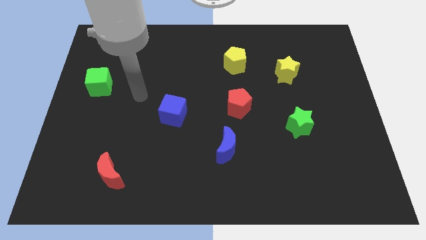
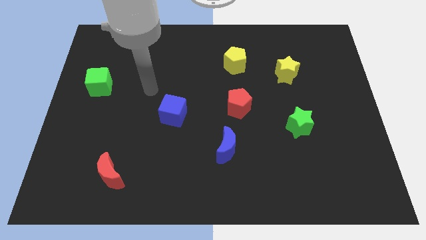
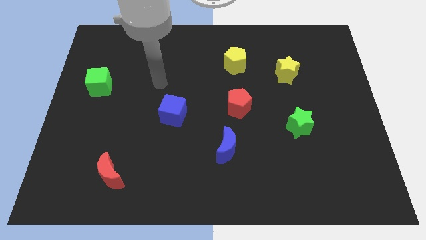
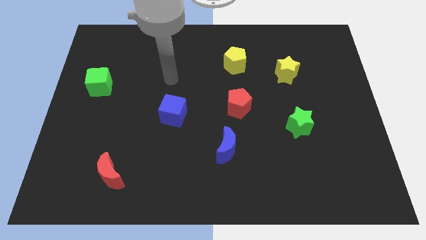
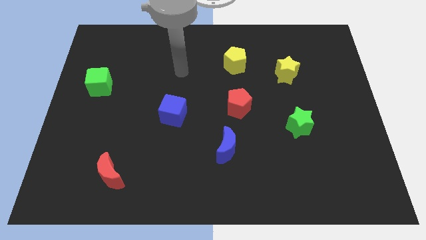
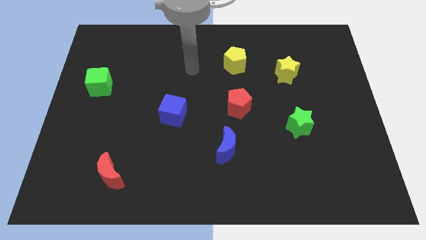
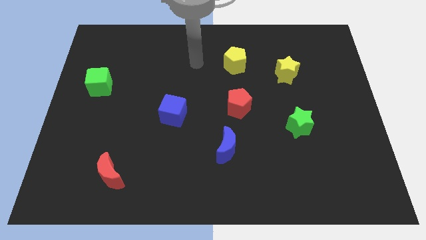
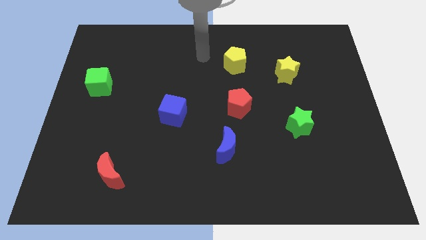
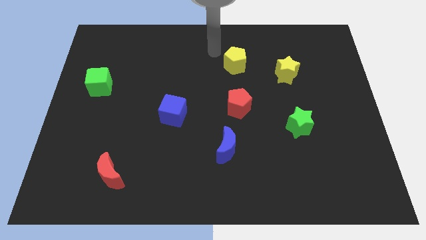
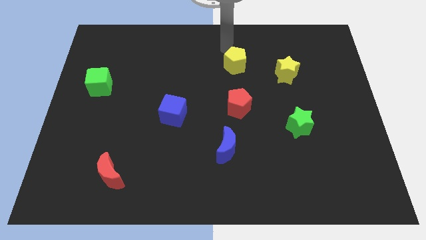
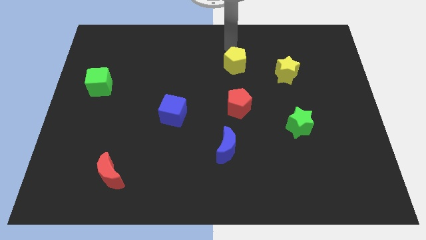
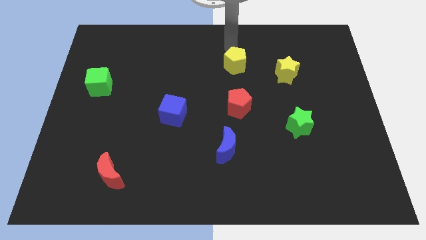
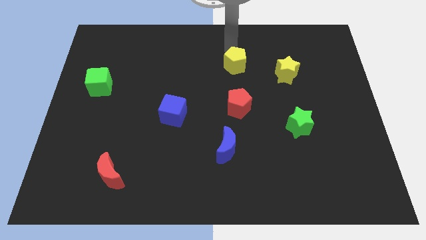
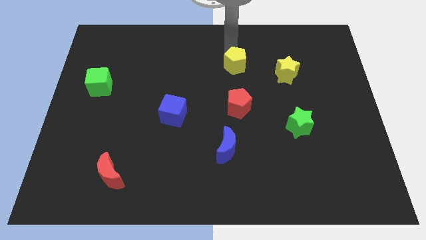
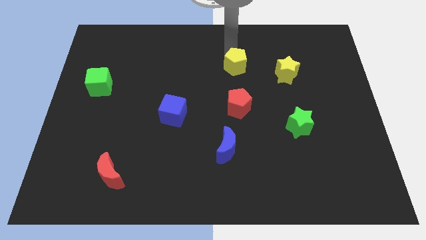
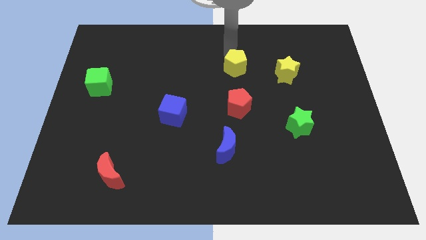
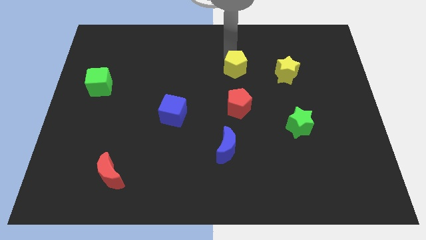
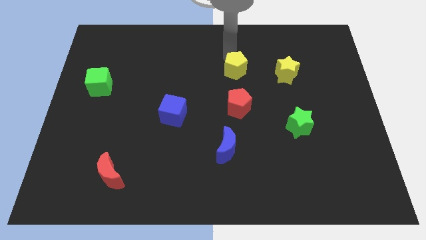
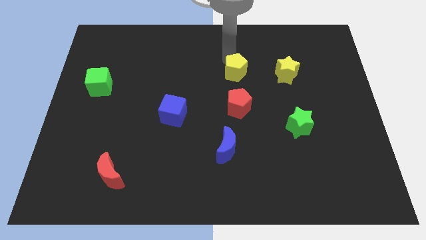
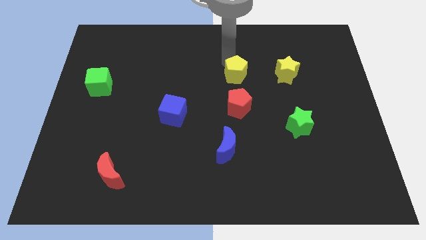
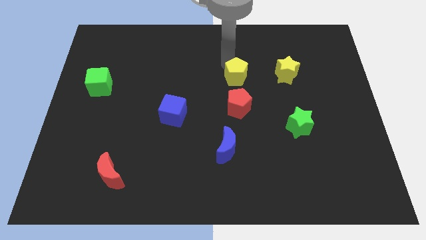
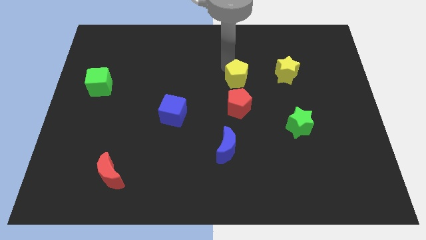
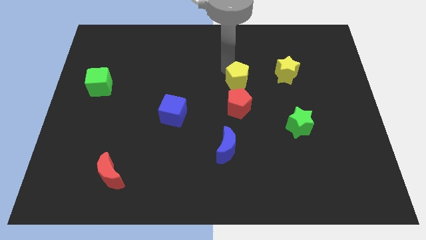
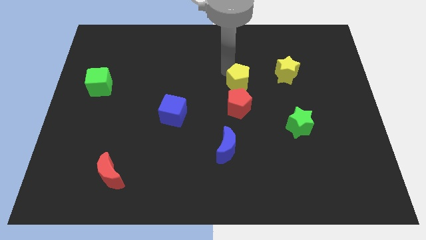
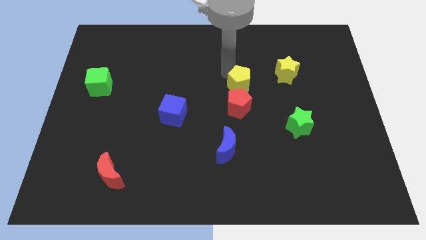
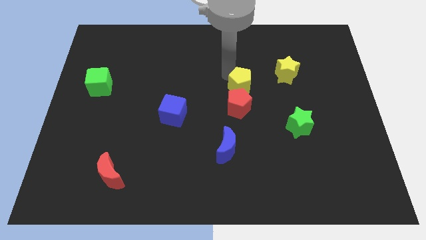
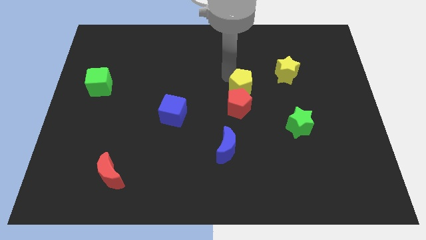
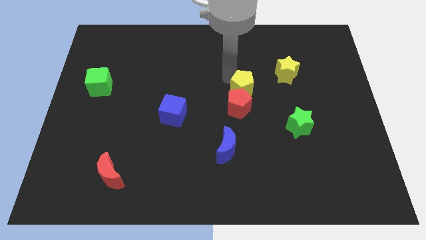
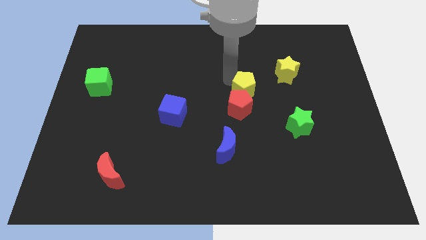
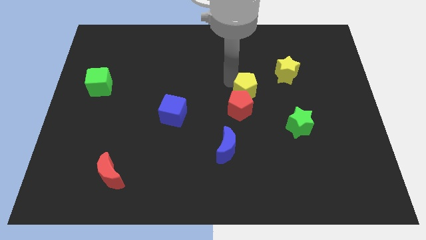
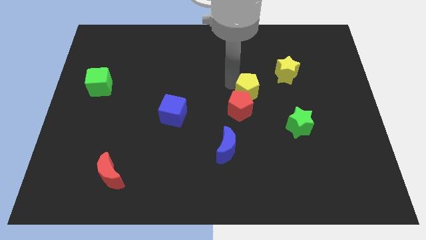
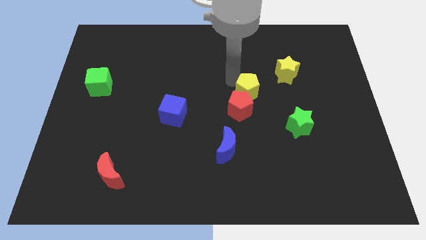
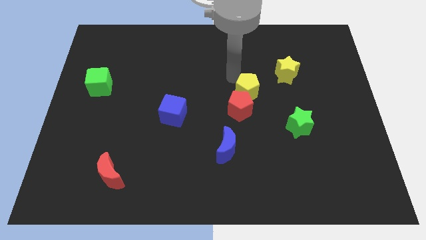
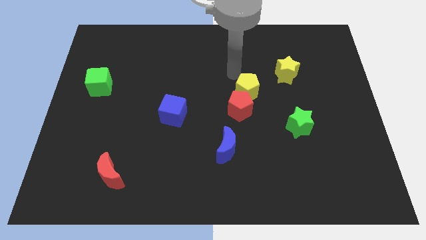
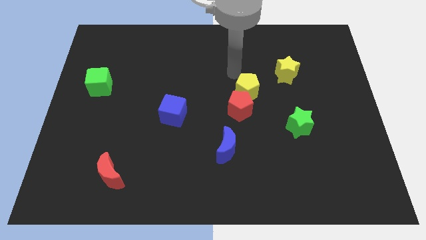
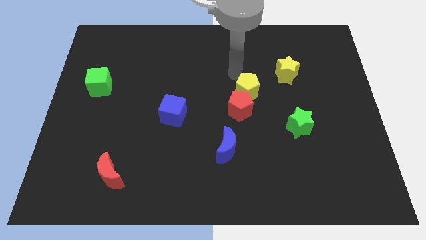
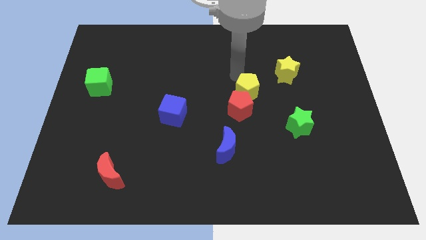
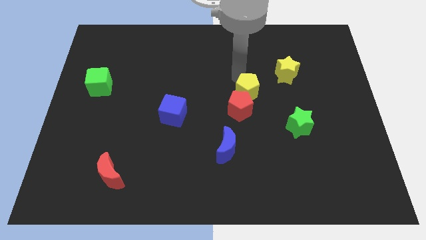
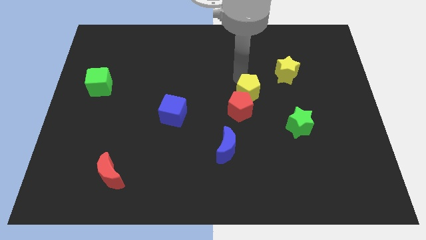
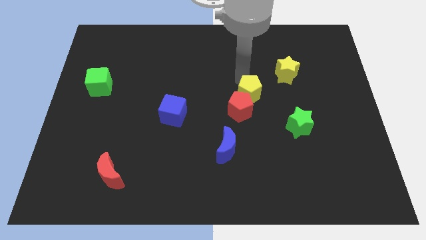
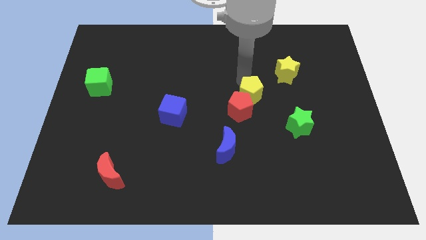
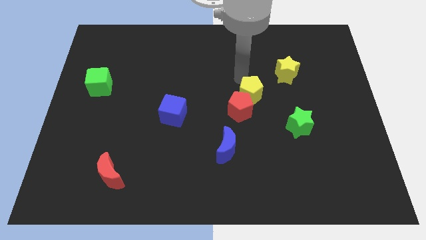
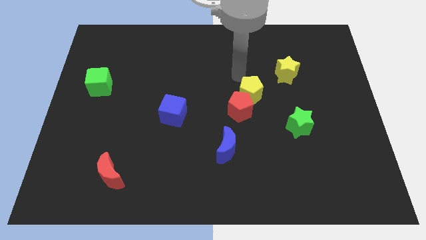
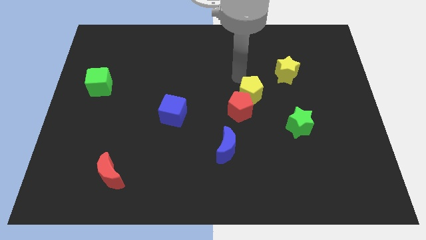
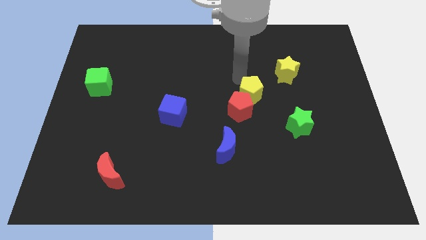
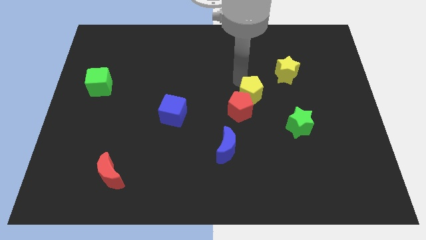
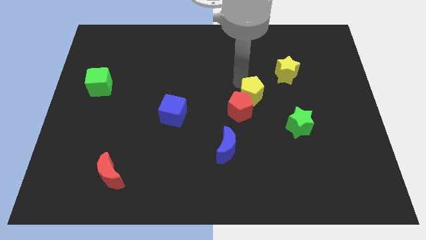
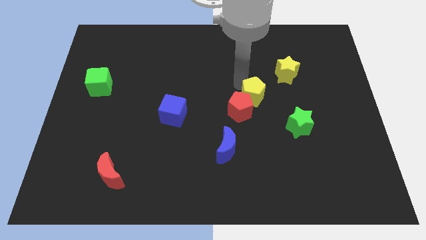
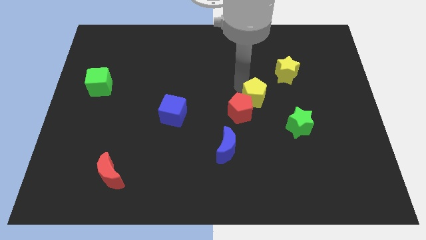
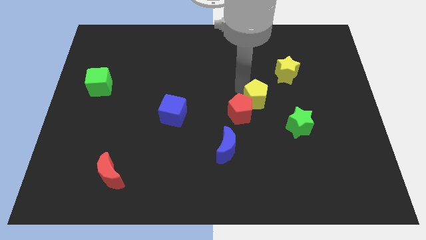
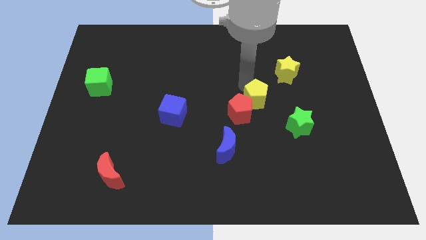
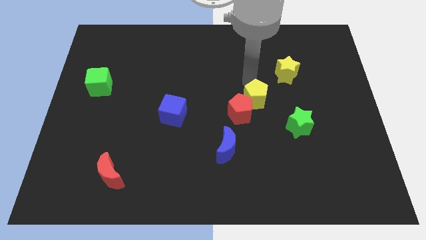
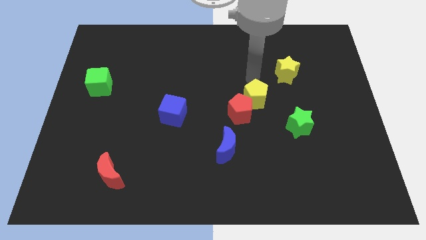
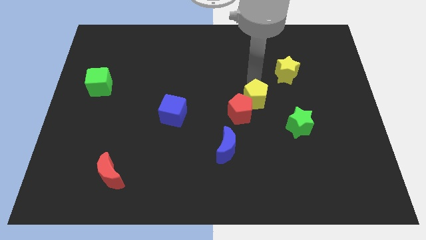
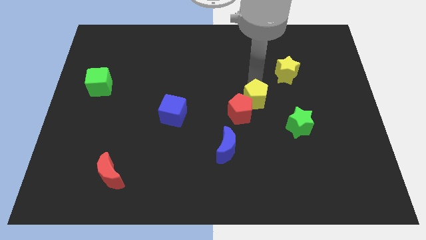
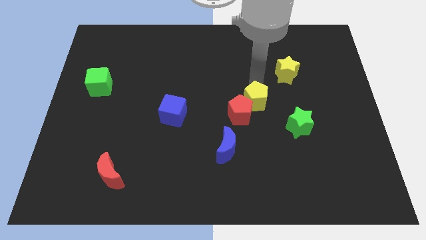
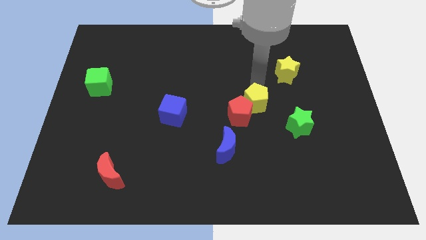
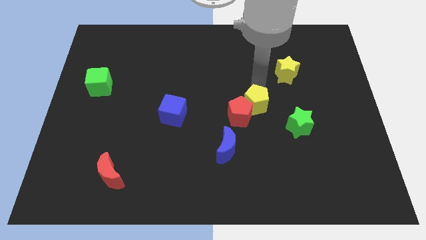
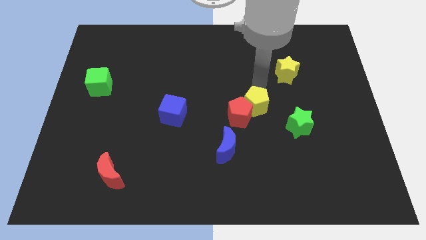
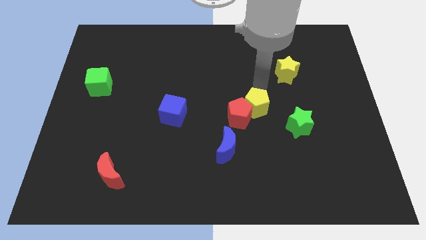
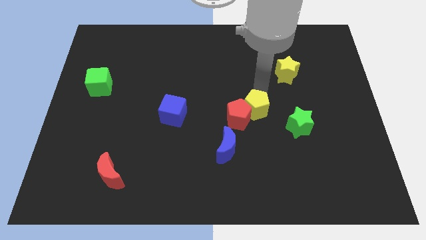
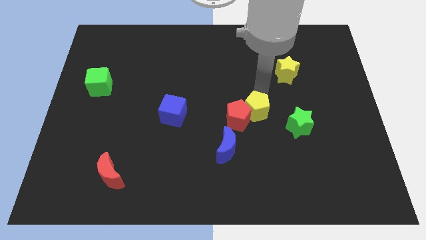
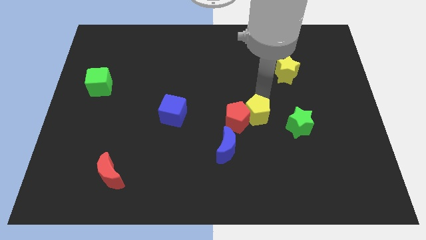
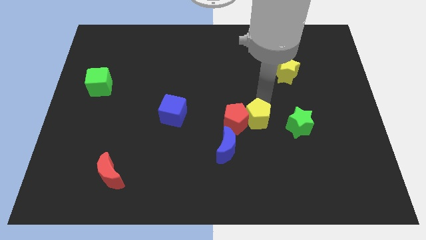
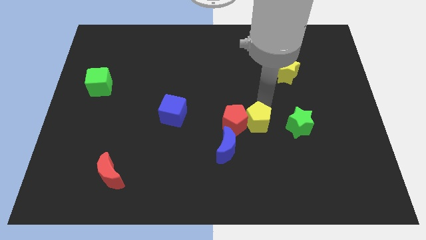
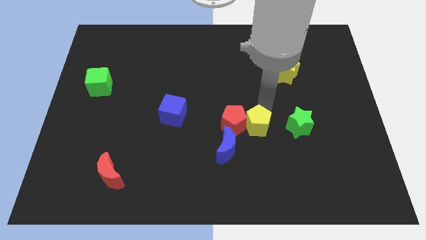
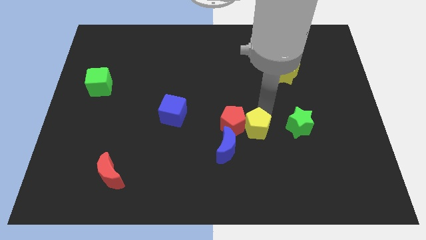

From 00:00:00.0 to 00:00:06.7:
move the yellow pentagon downwards

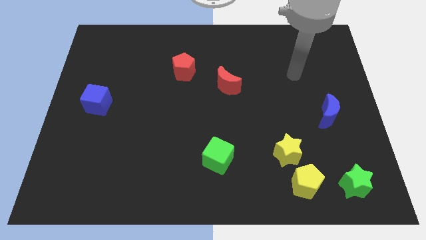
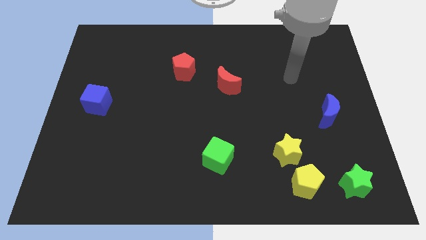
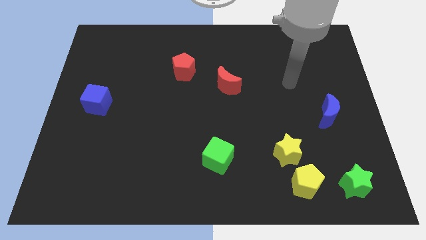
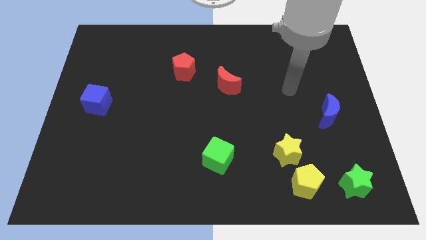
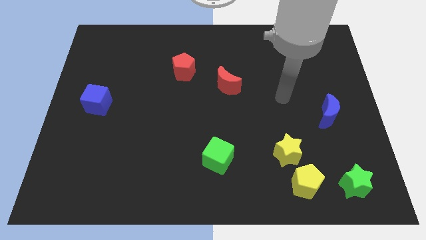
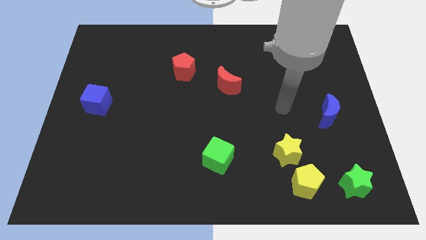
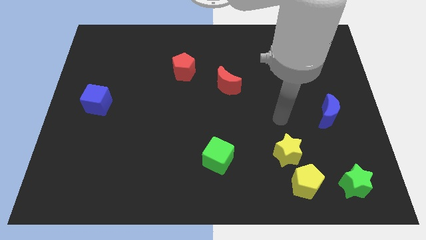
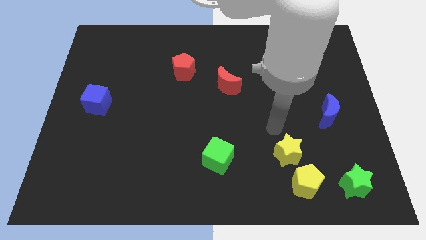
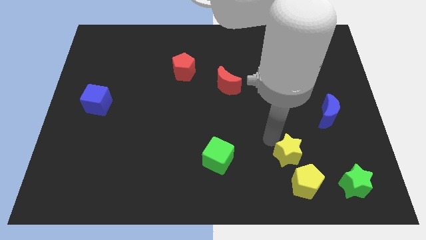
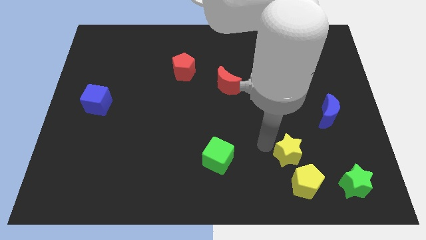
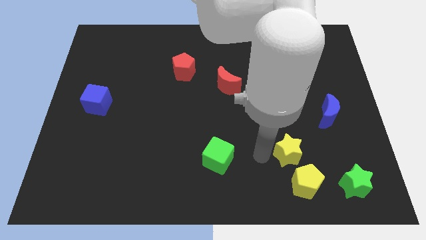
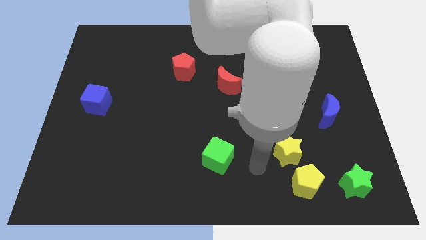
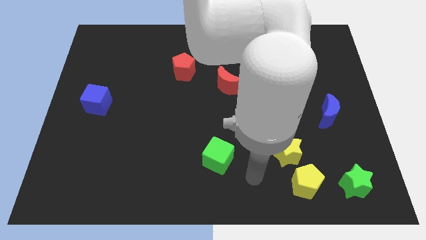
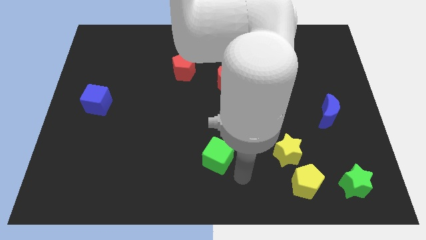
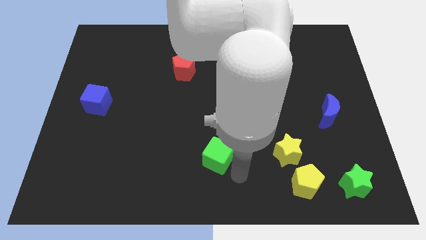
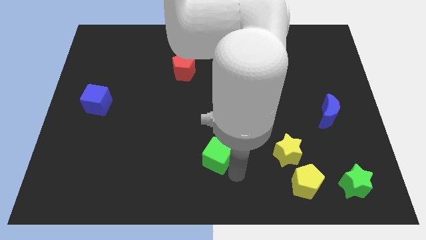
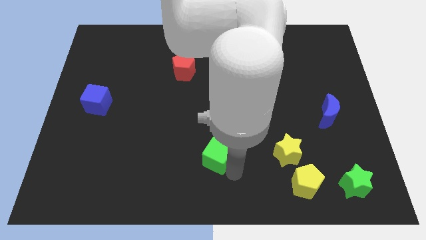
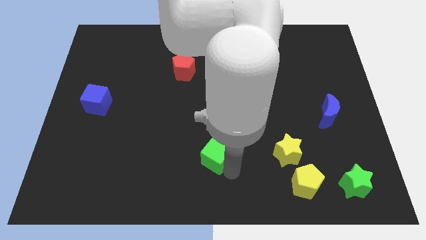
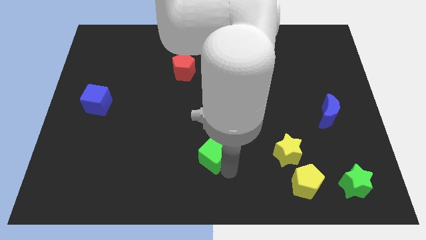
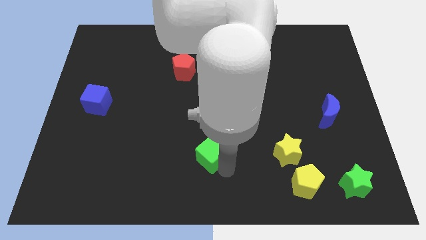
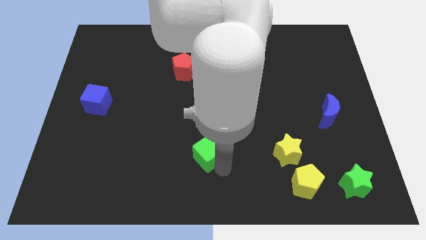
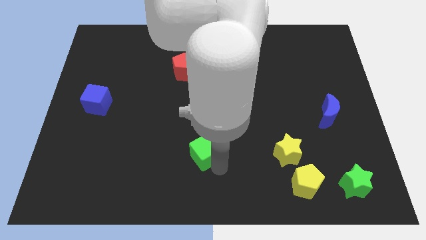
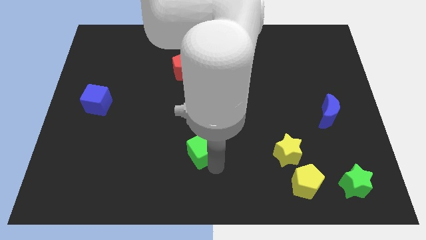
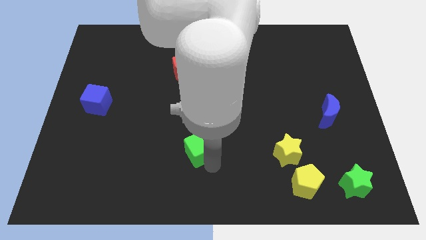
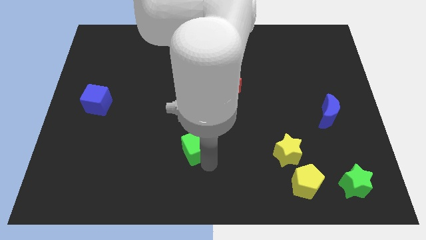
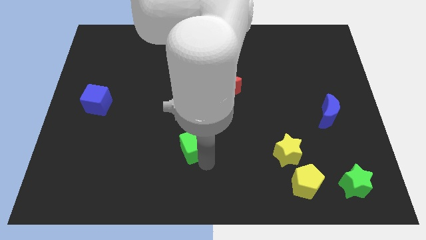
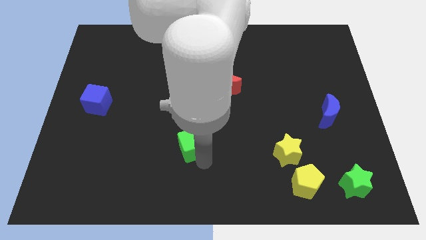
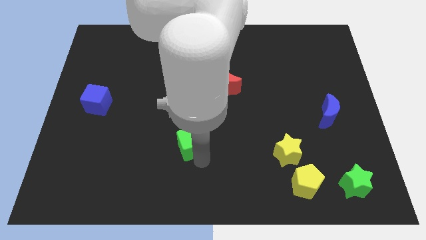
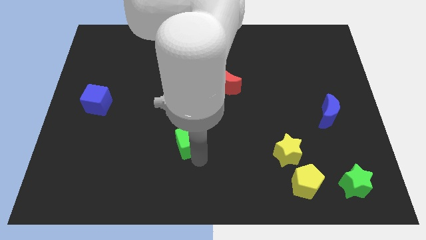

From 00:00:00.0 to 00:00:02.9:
push the green cube up and to the left slightly
